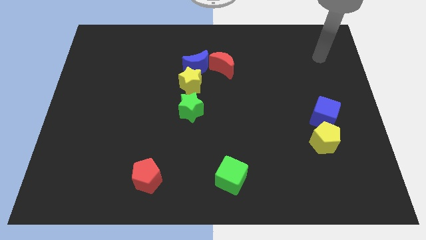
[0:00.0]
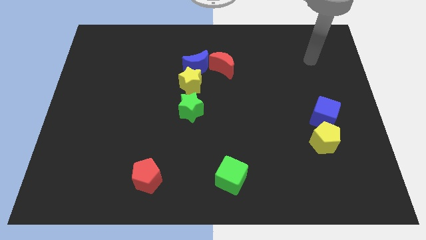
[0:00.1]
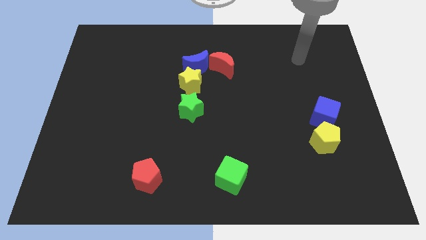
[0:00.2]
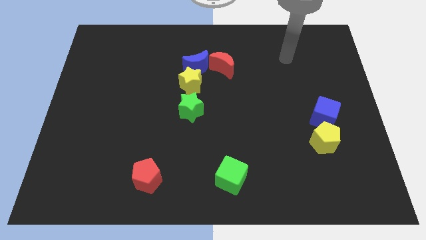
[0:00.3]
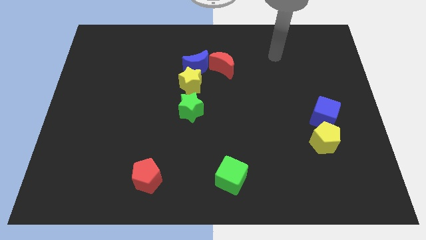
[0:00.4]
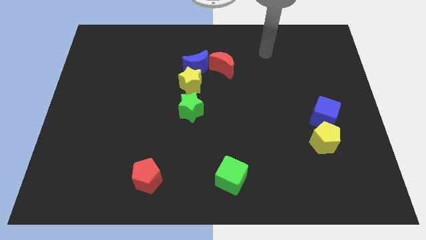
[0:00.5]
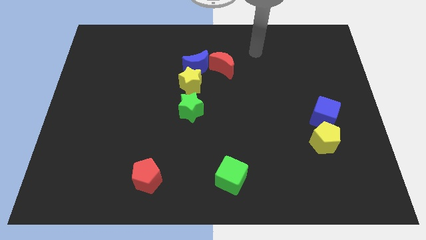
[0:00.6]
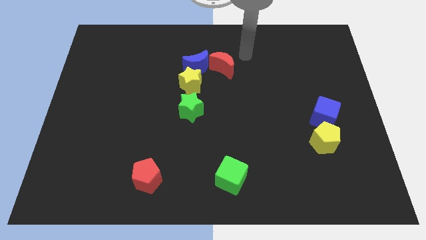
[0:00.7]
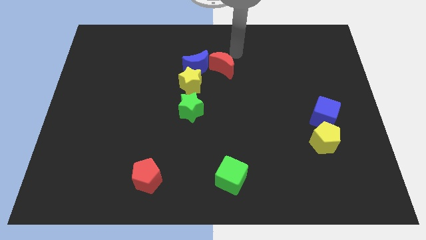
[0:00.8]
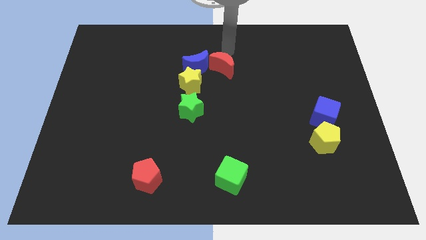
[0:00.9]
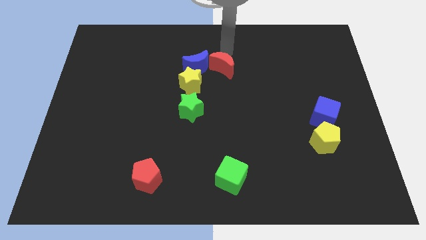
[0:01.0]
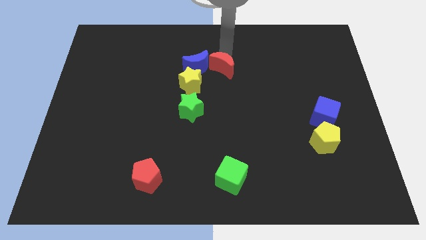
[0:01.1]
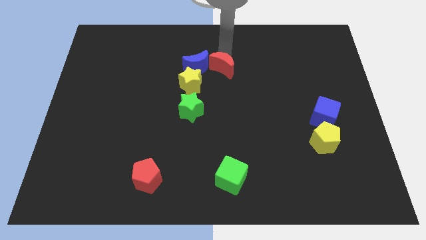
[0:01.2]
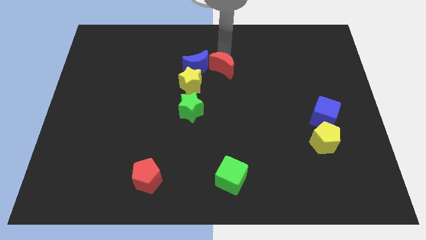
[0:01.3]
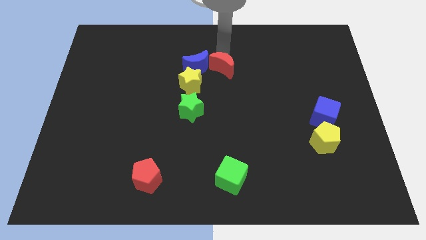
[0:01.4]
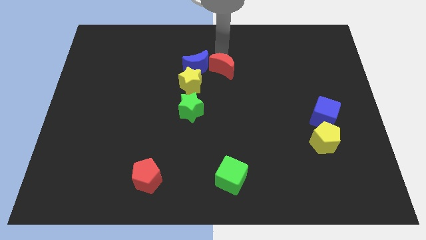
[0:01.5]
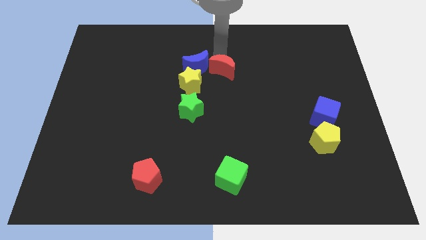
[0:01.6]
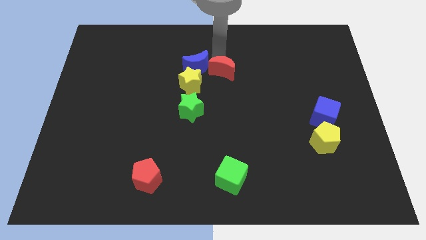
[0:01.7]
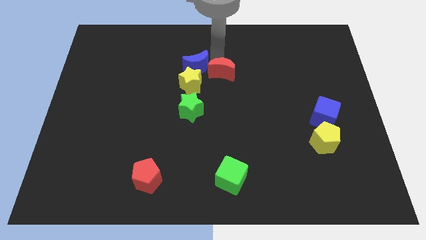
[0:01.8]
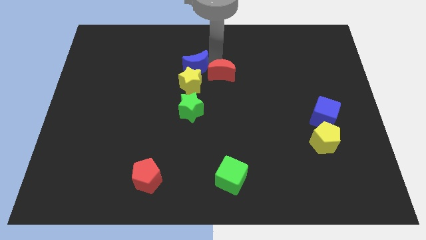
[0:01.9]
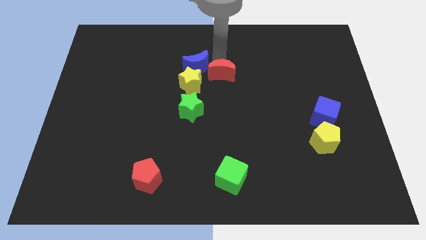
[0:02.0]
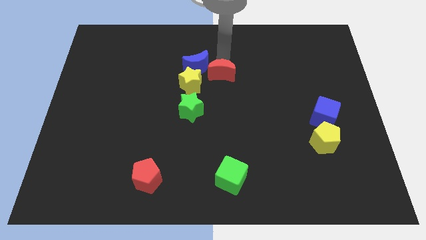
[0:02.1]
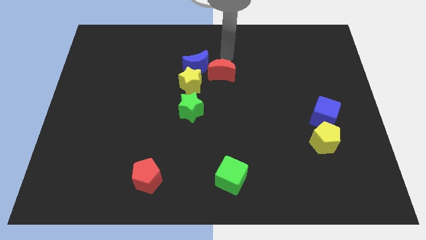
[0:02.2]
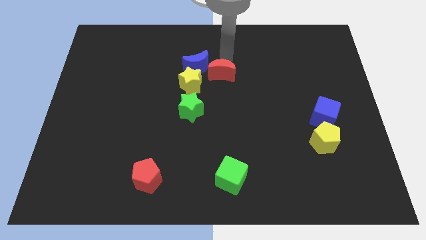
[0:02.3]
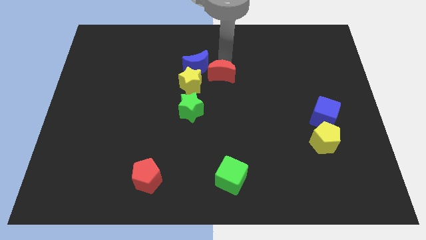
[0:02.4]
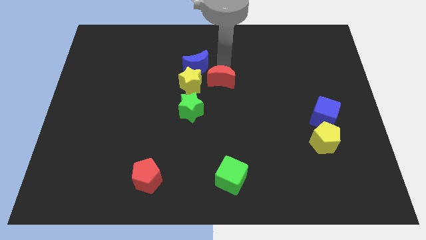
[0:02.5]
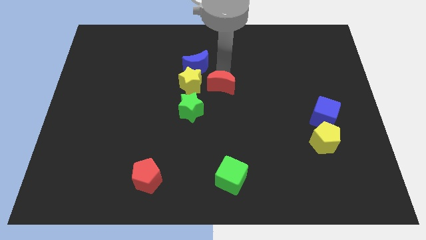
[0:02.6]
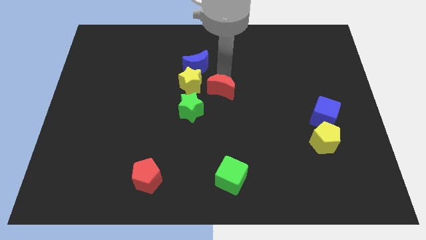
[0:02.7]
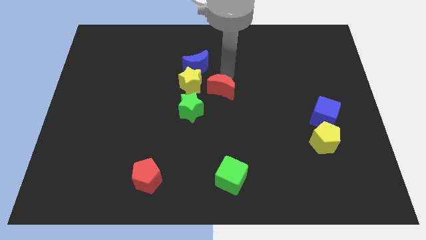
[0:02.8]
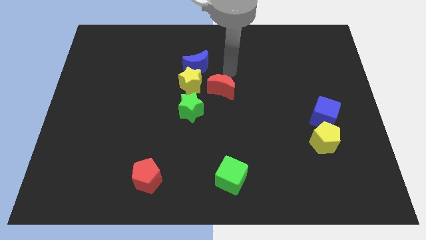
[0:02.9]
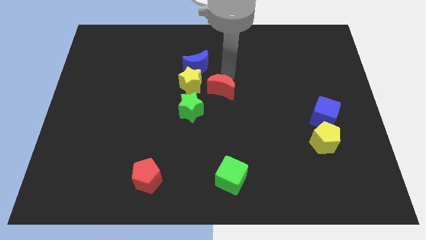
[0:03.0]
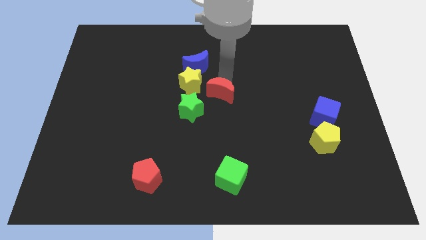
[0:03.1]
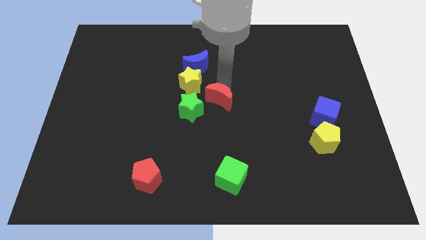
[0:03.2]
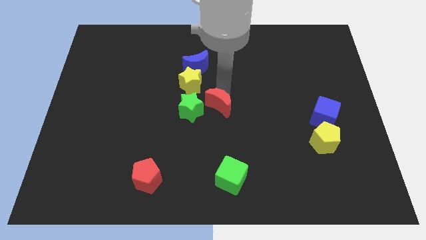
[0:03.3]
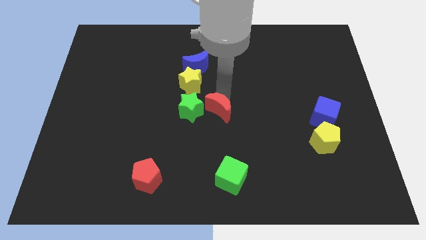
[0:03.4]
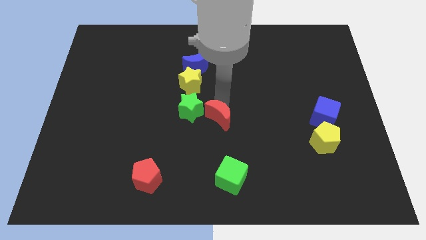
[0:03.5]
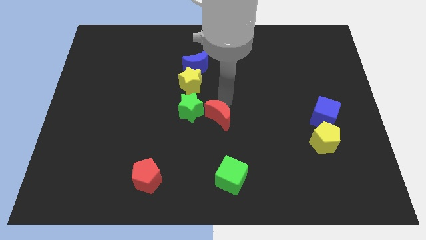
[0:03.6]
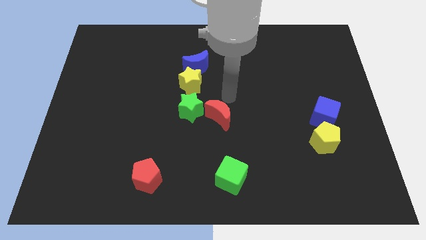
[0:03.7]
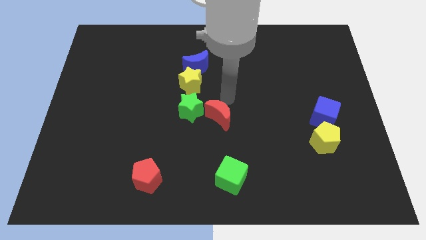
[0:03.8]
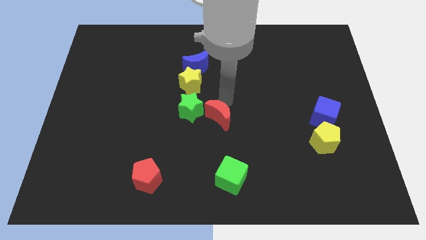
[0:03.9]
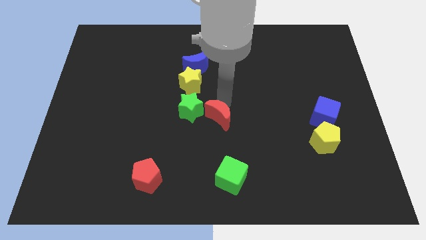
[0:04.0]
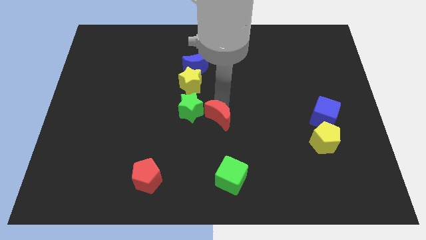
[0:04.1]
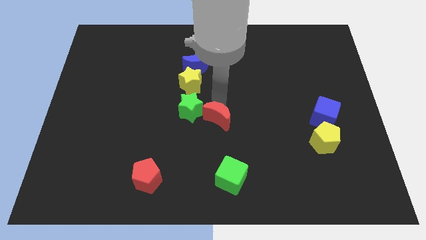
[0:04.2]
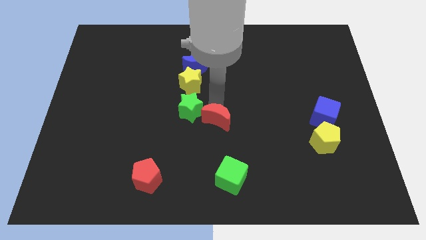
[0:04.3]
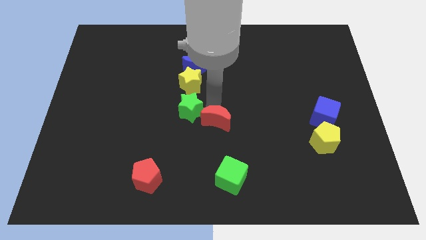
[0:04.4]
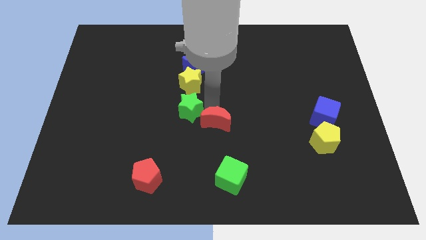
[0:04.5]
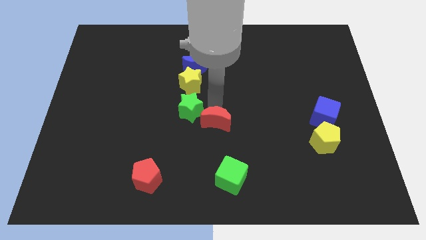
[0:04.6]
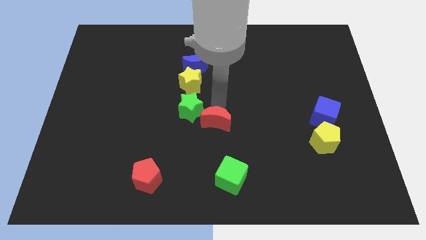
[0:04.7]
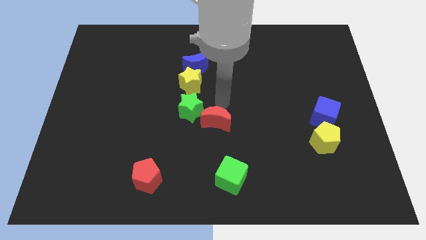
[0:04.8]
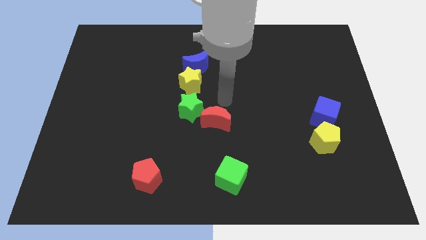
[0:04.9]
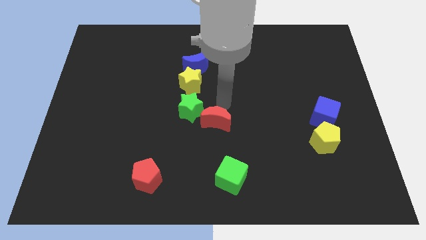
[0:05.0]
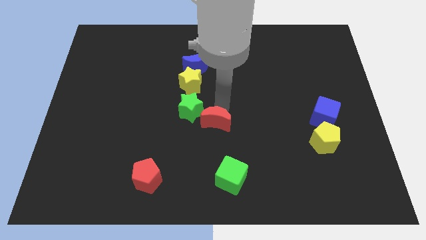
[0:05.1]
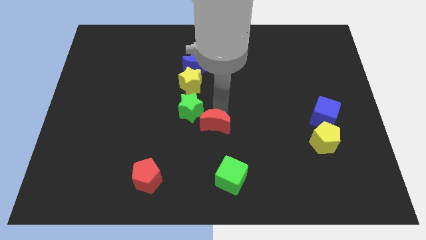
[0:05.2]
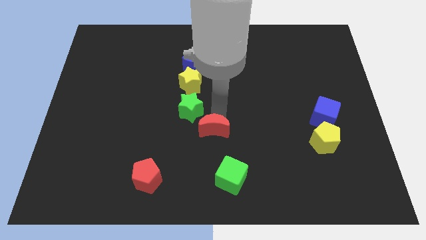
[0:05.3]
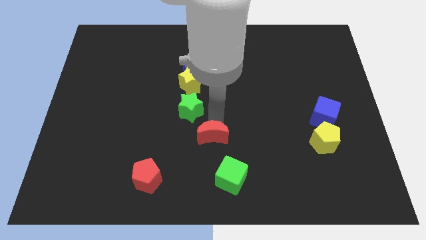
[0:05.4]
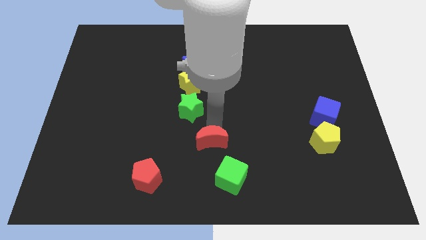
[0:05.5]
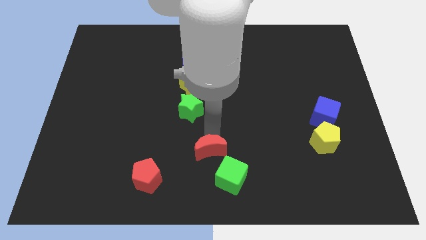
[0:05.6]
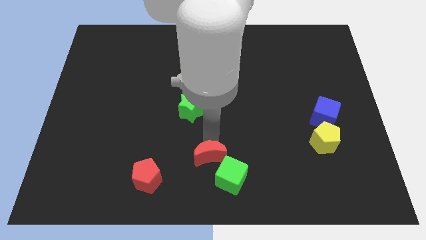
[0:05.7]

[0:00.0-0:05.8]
put the red moon to the bottom side
